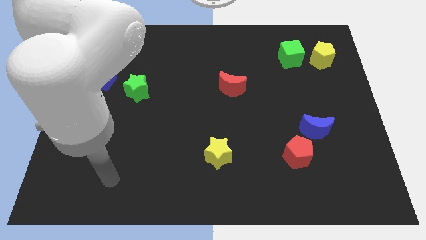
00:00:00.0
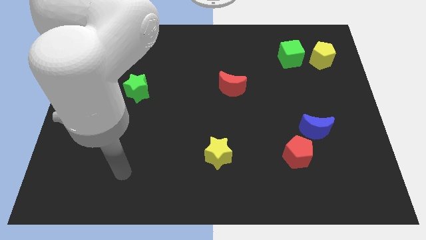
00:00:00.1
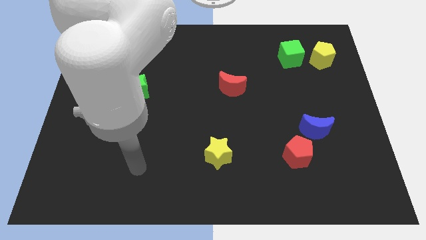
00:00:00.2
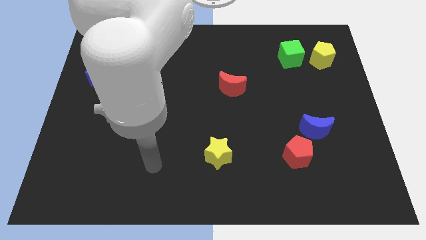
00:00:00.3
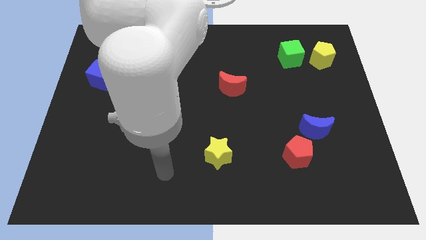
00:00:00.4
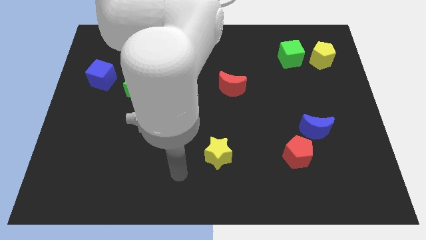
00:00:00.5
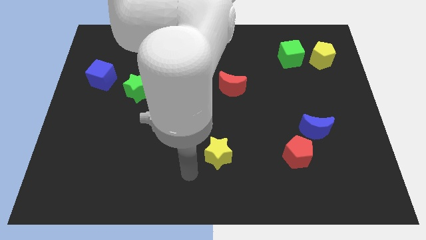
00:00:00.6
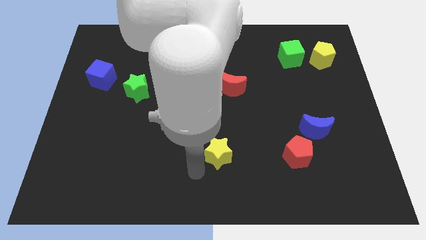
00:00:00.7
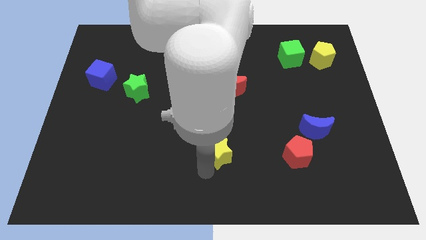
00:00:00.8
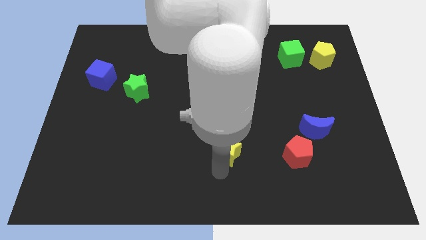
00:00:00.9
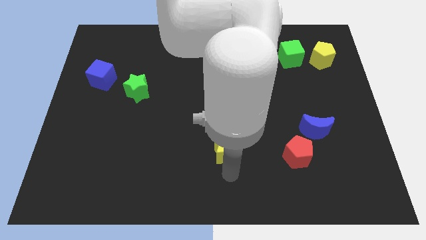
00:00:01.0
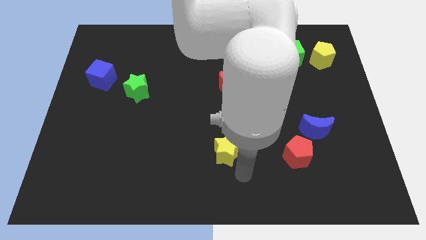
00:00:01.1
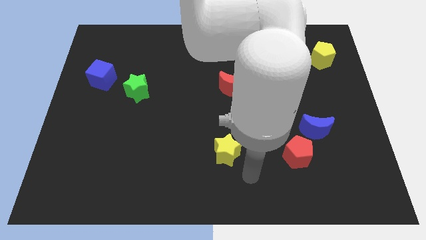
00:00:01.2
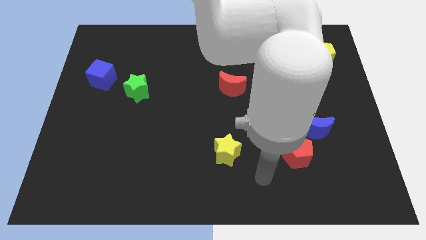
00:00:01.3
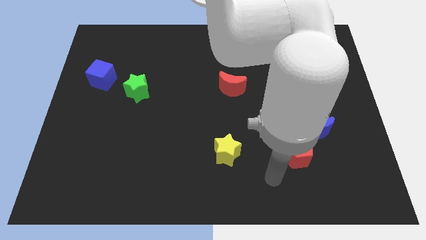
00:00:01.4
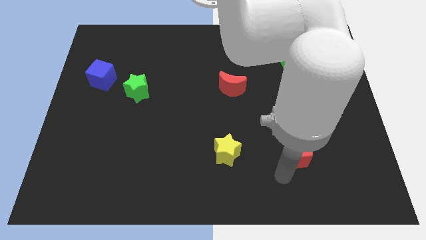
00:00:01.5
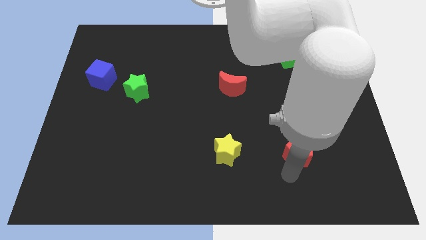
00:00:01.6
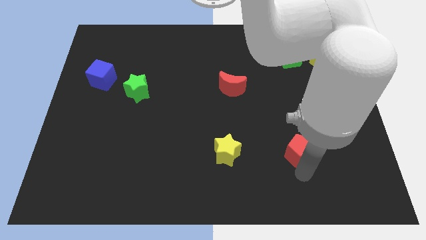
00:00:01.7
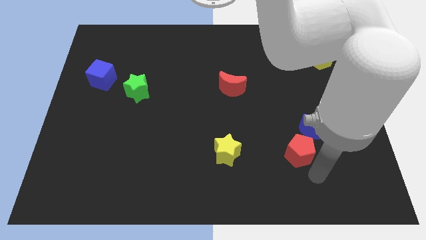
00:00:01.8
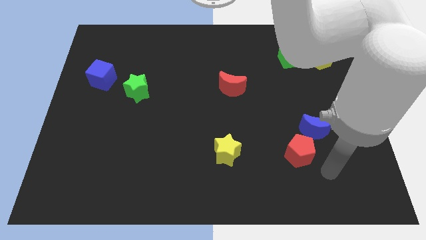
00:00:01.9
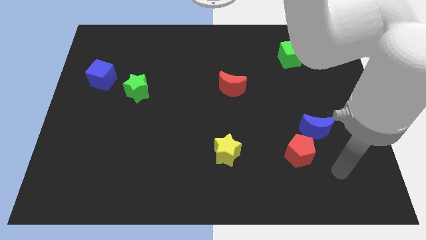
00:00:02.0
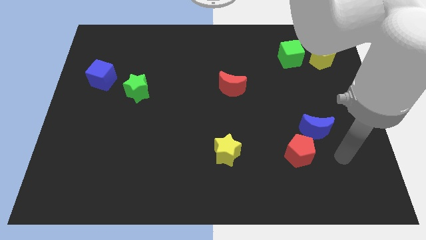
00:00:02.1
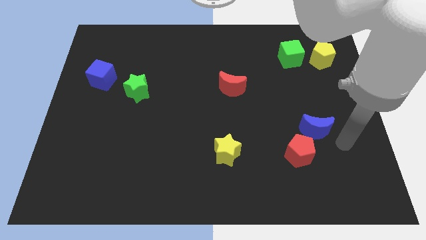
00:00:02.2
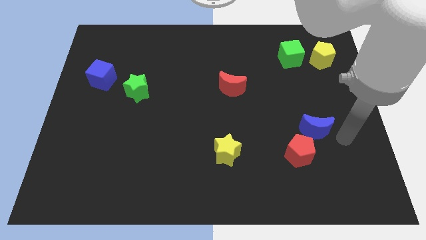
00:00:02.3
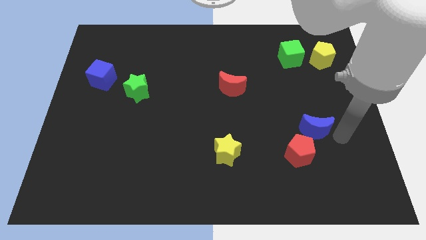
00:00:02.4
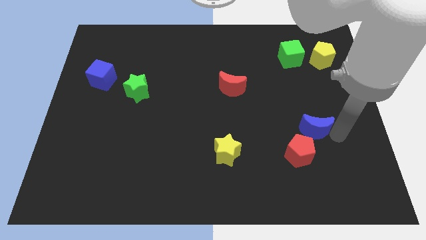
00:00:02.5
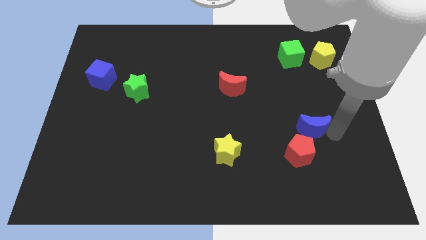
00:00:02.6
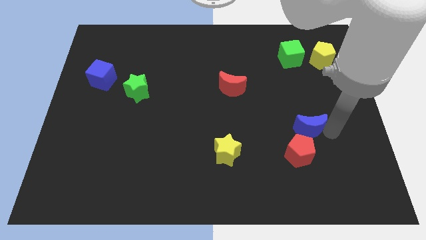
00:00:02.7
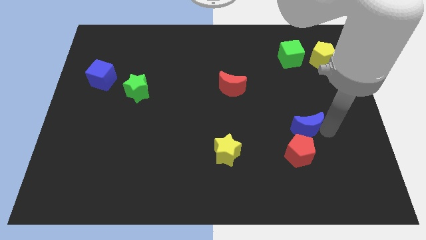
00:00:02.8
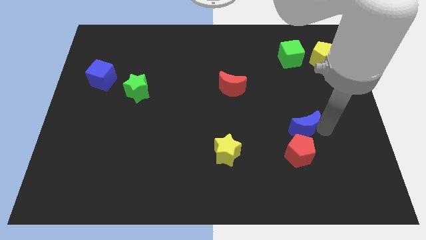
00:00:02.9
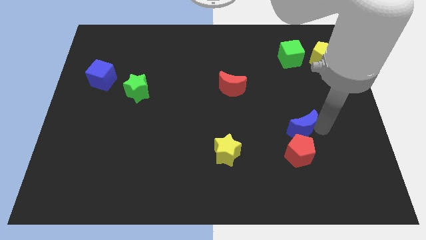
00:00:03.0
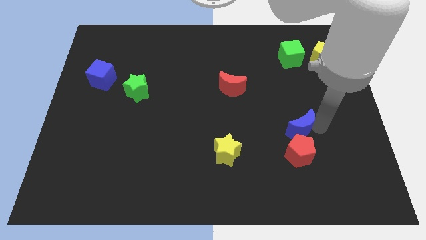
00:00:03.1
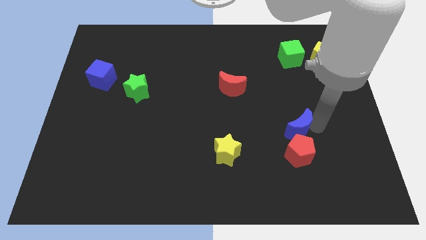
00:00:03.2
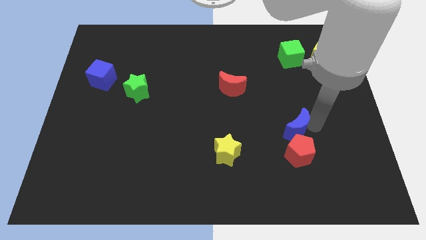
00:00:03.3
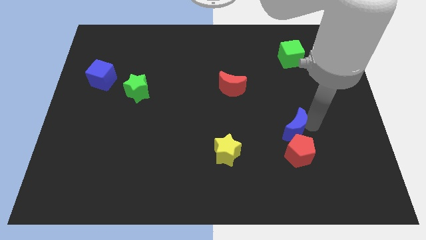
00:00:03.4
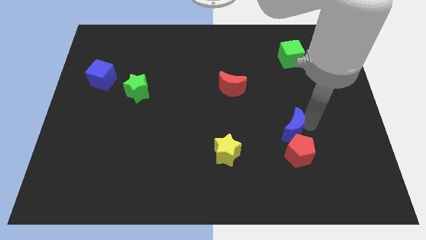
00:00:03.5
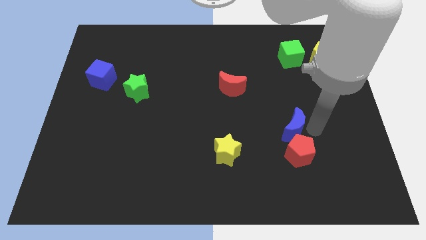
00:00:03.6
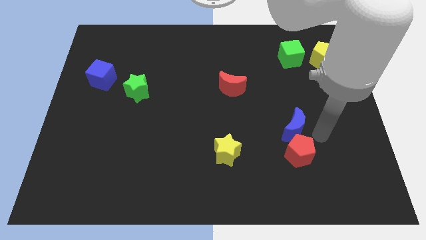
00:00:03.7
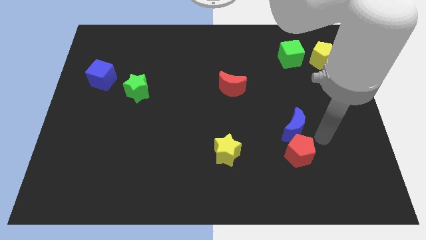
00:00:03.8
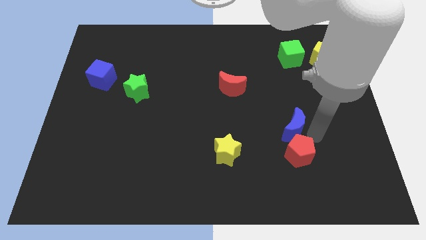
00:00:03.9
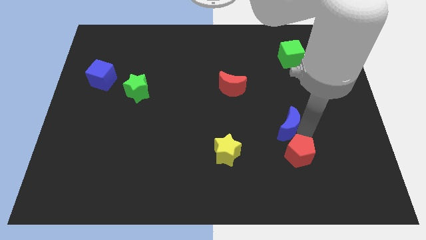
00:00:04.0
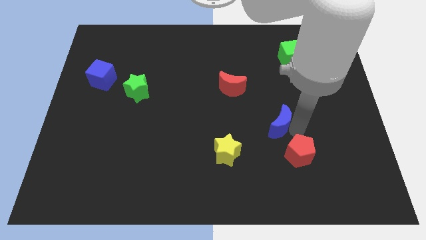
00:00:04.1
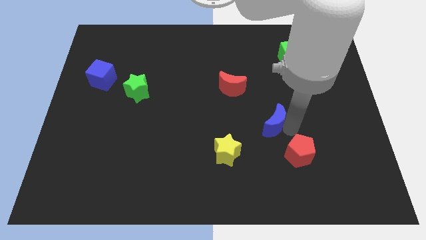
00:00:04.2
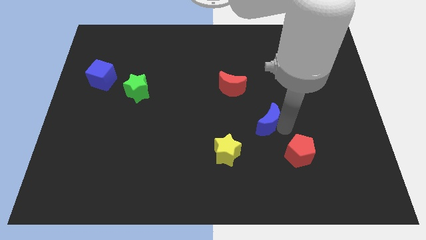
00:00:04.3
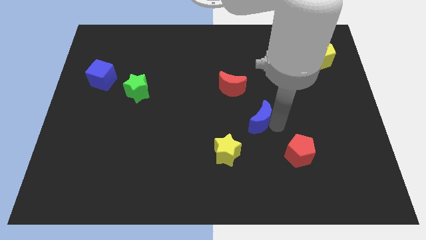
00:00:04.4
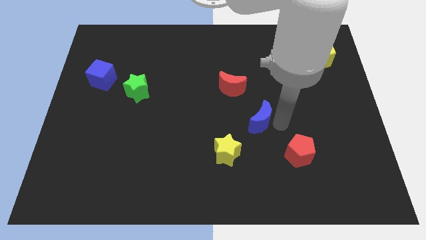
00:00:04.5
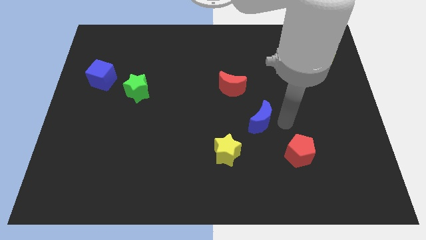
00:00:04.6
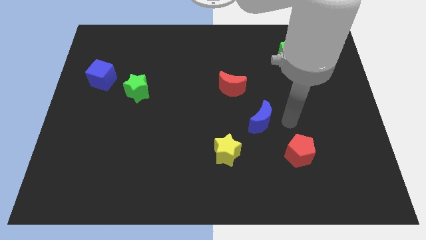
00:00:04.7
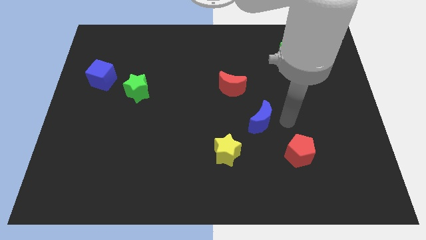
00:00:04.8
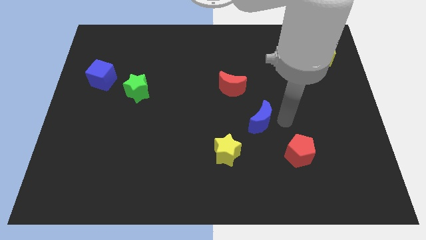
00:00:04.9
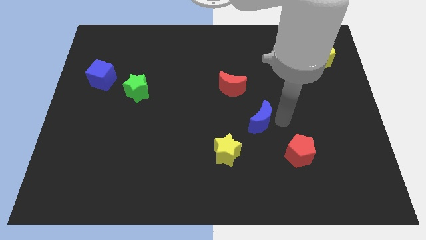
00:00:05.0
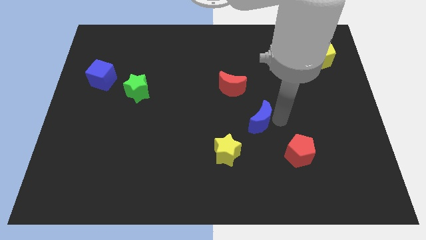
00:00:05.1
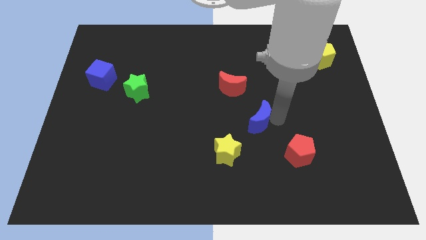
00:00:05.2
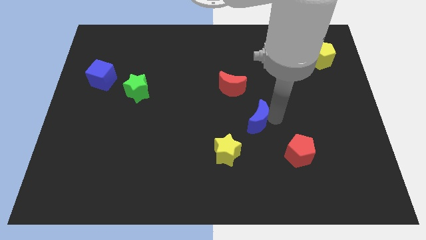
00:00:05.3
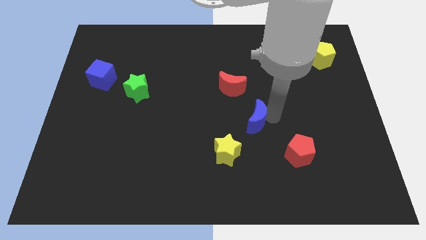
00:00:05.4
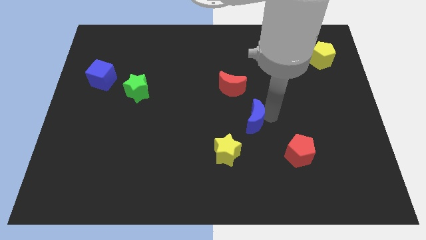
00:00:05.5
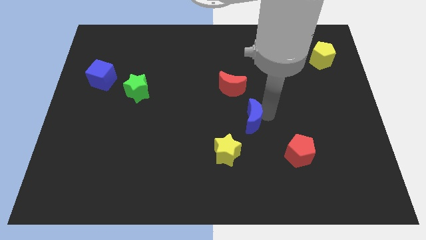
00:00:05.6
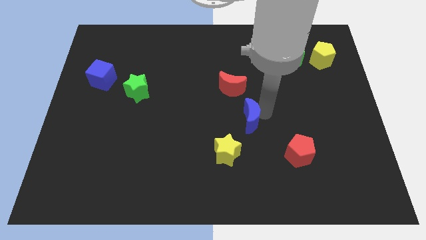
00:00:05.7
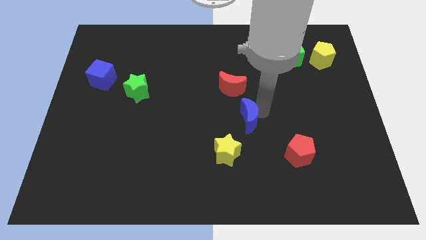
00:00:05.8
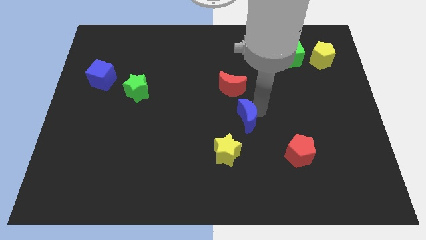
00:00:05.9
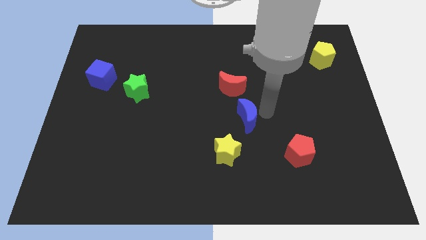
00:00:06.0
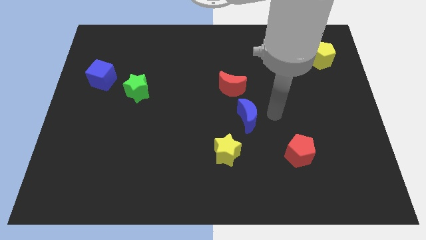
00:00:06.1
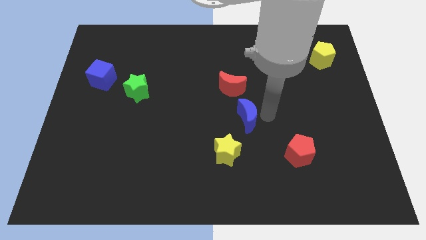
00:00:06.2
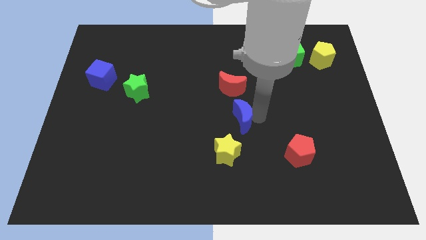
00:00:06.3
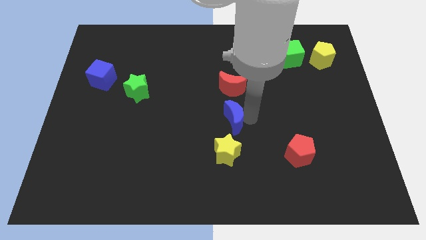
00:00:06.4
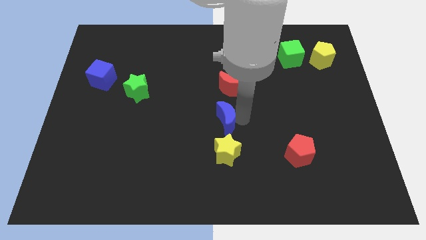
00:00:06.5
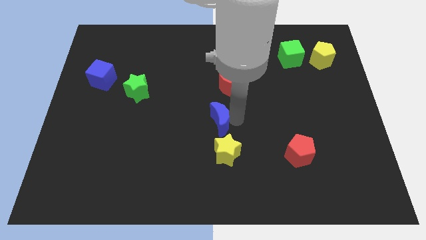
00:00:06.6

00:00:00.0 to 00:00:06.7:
slide the blue moon to the left

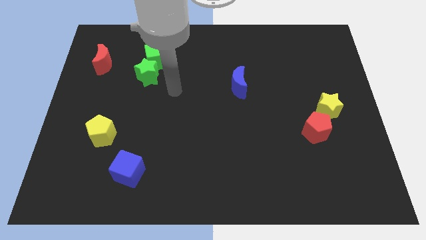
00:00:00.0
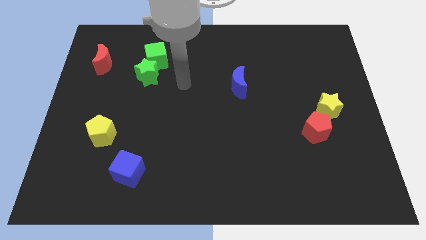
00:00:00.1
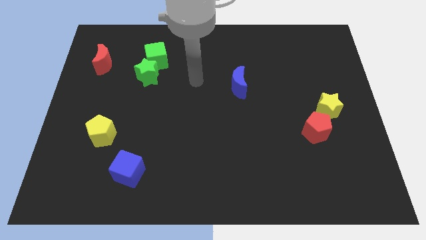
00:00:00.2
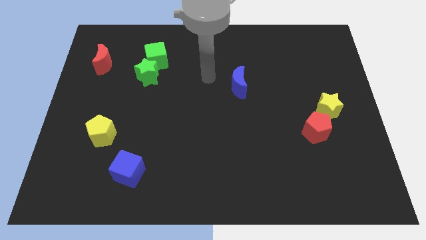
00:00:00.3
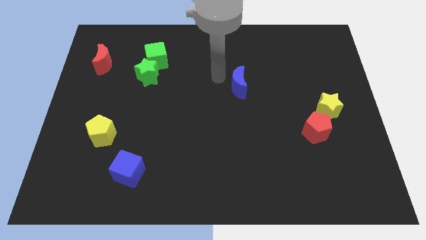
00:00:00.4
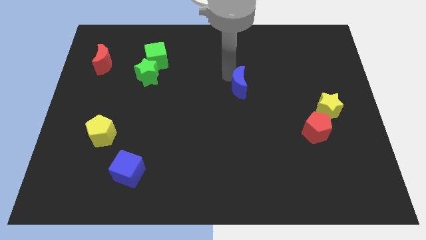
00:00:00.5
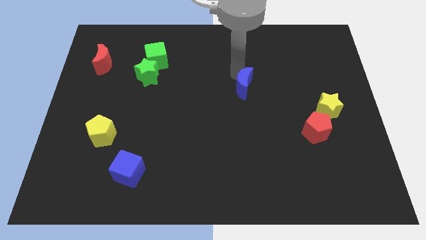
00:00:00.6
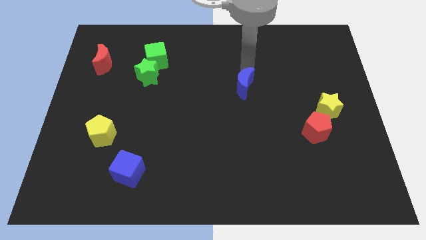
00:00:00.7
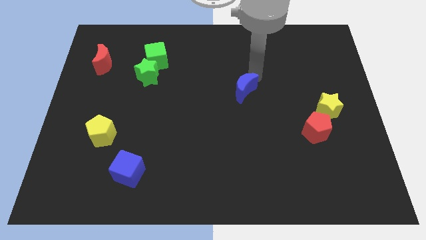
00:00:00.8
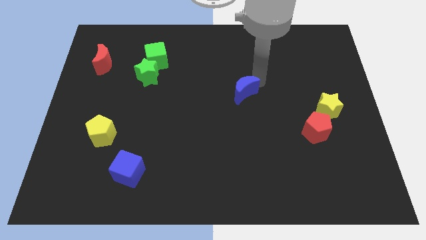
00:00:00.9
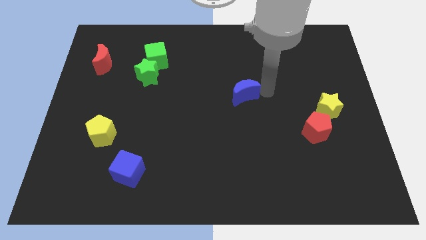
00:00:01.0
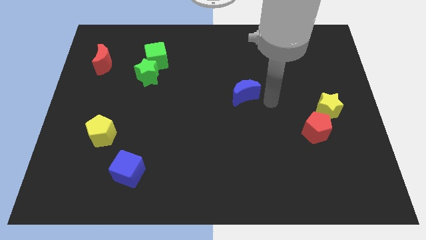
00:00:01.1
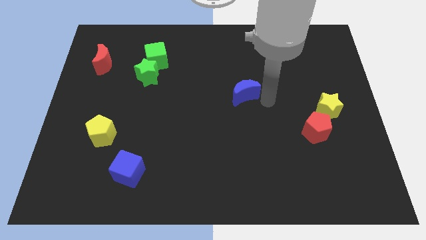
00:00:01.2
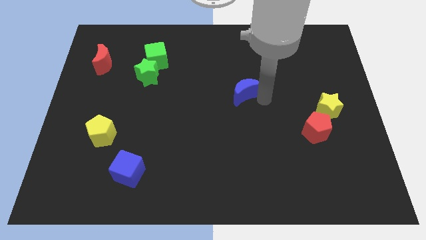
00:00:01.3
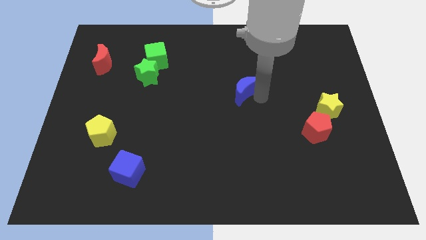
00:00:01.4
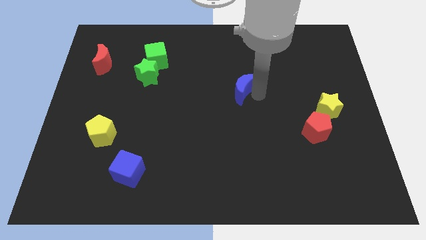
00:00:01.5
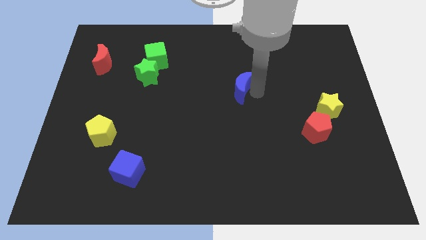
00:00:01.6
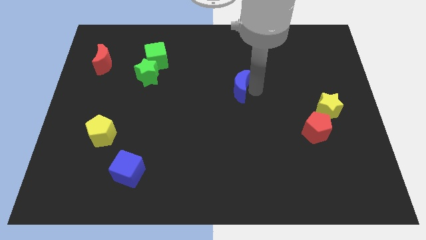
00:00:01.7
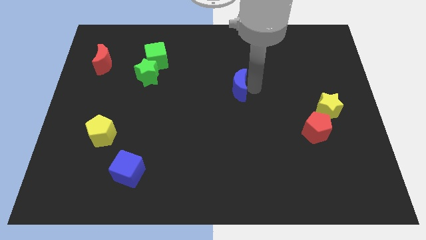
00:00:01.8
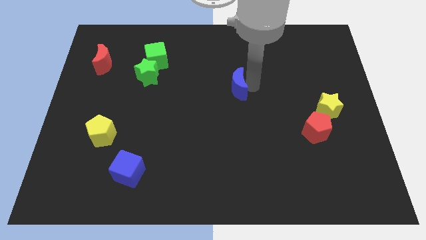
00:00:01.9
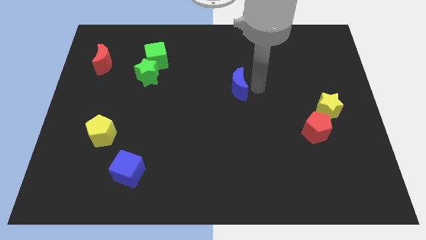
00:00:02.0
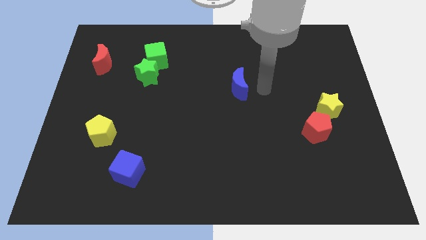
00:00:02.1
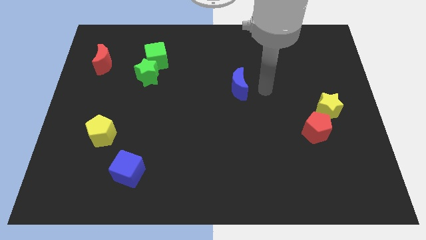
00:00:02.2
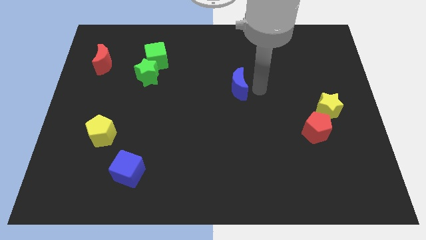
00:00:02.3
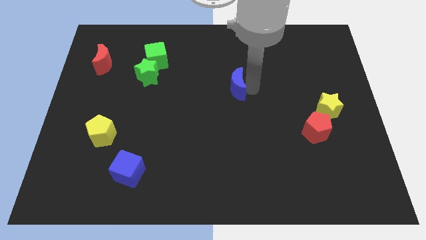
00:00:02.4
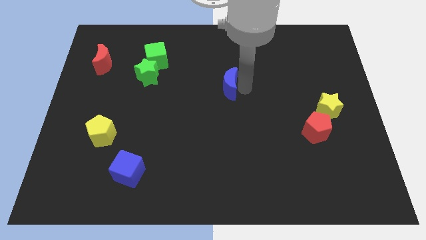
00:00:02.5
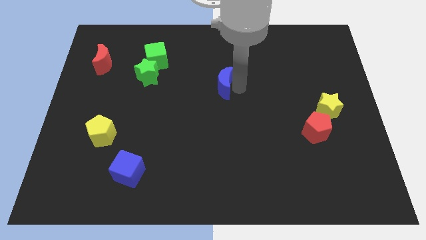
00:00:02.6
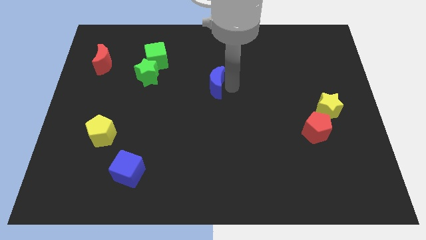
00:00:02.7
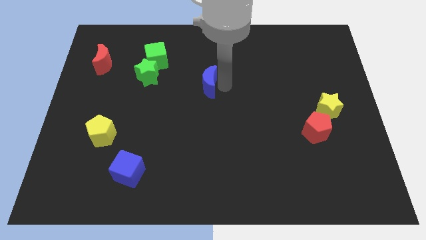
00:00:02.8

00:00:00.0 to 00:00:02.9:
slide the blue moon a bit left
